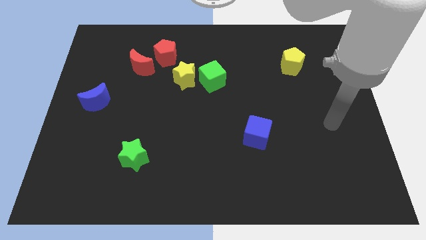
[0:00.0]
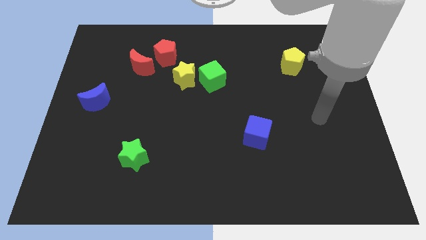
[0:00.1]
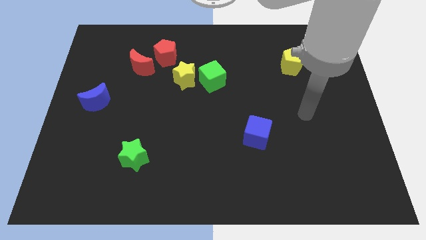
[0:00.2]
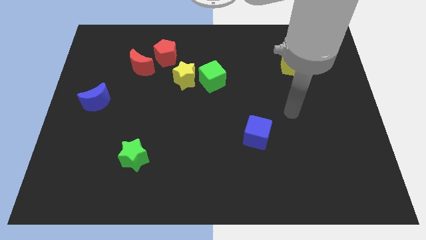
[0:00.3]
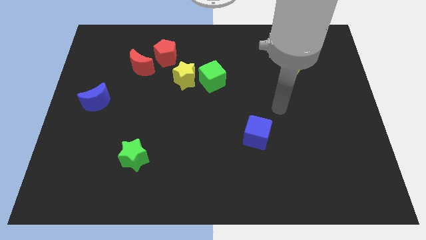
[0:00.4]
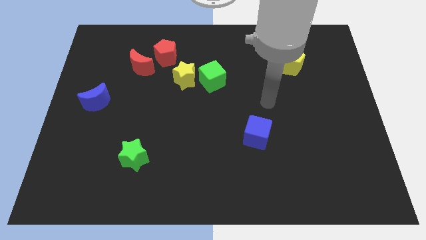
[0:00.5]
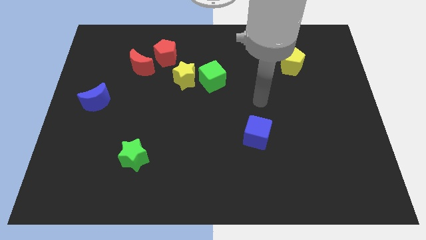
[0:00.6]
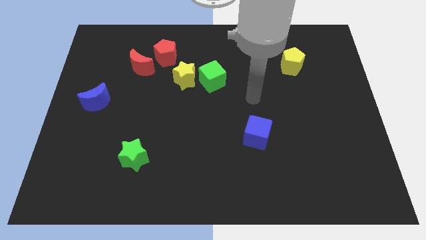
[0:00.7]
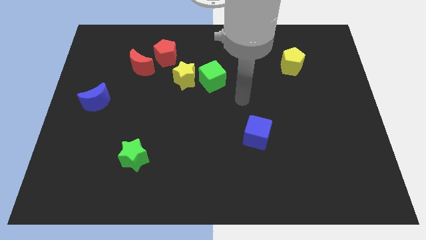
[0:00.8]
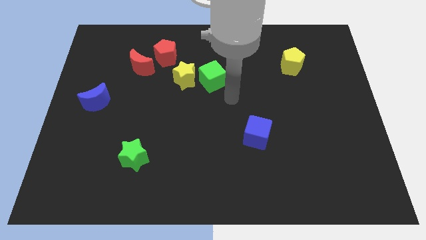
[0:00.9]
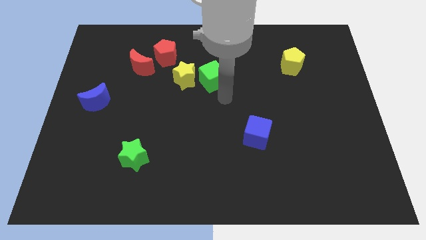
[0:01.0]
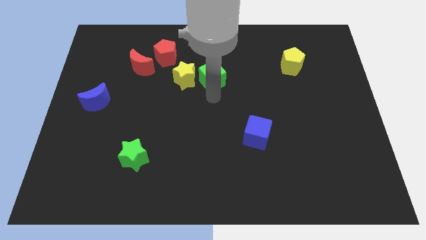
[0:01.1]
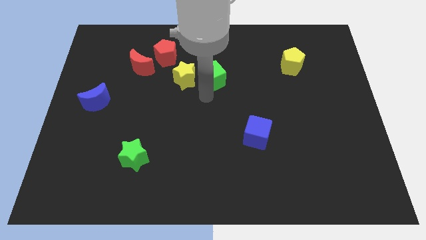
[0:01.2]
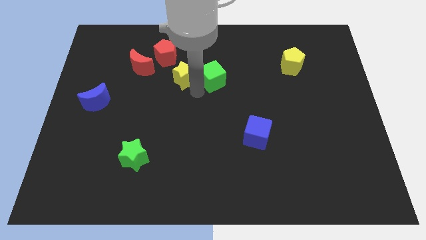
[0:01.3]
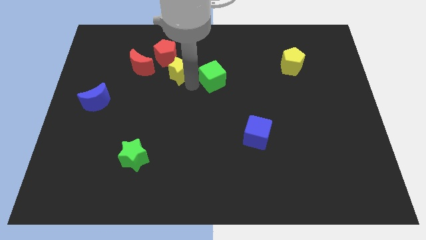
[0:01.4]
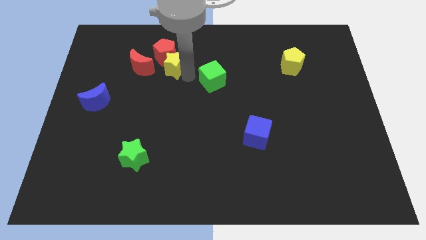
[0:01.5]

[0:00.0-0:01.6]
separate the green cube from the yellow star

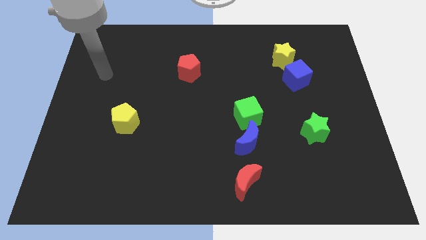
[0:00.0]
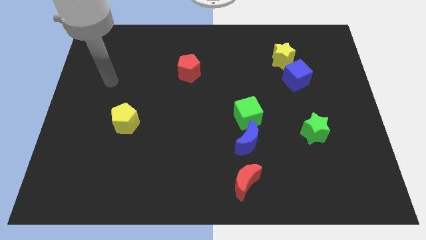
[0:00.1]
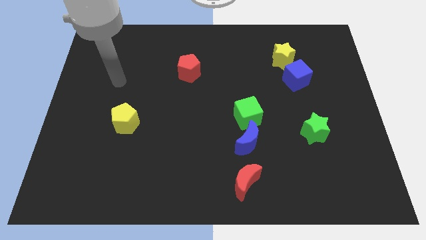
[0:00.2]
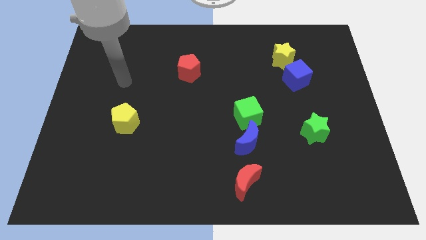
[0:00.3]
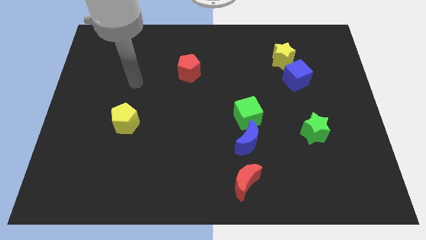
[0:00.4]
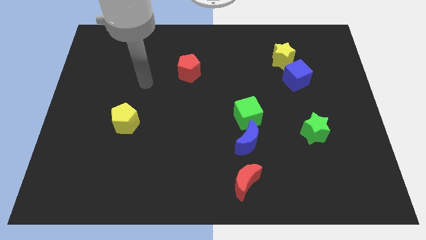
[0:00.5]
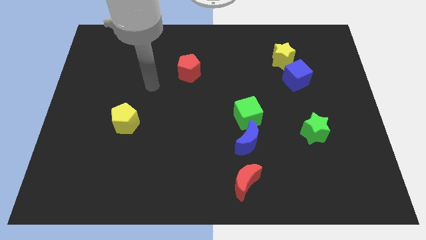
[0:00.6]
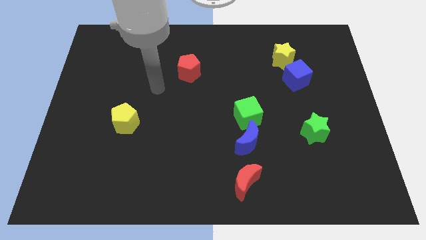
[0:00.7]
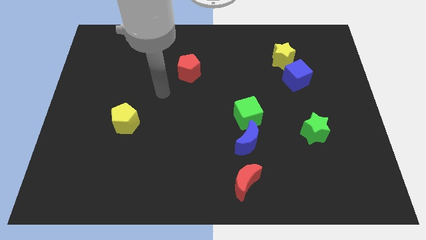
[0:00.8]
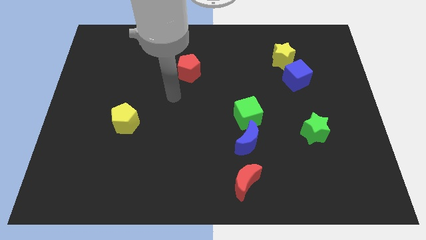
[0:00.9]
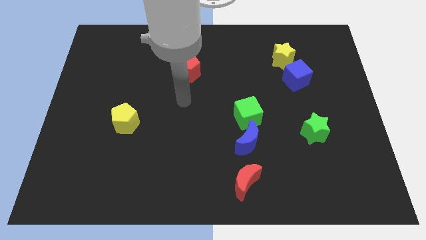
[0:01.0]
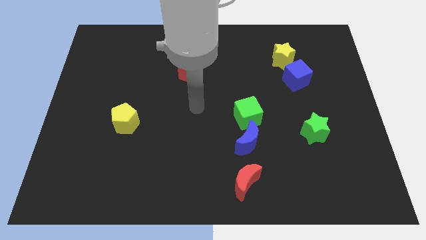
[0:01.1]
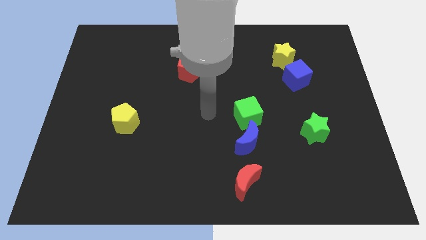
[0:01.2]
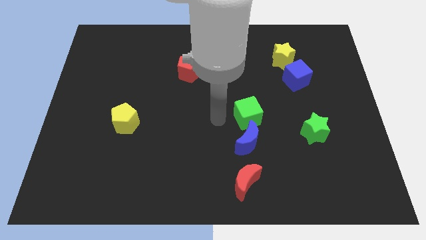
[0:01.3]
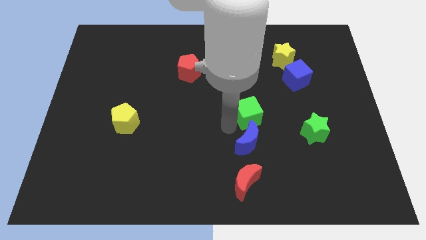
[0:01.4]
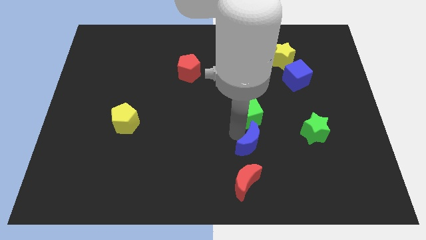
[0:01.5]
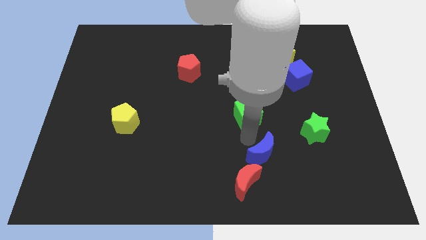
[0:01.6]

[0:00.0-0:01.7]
pull the green cube apart from the blue moon

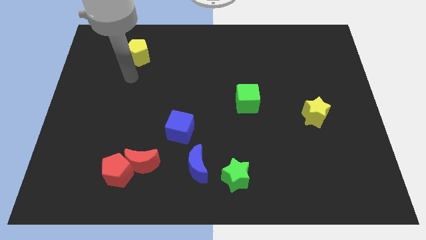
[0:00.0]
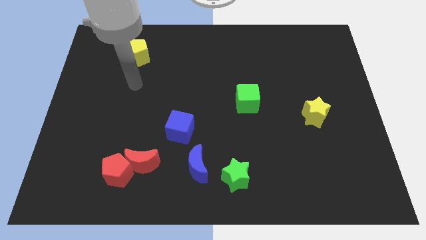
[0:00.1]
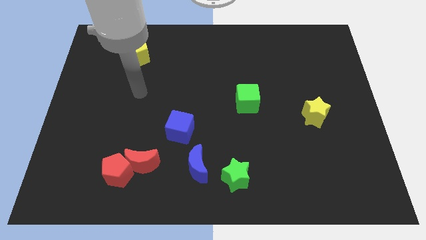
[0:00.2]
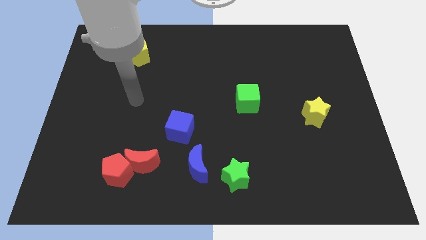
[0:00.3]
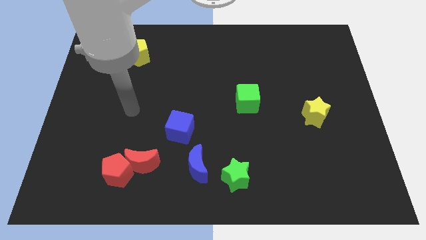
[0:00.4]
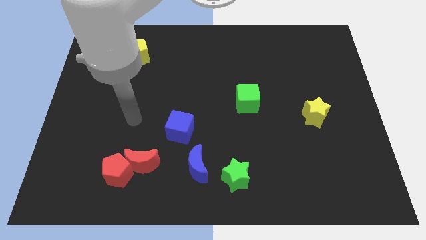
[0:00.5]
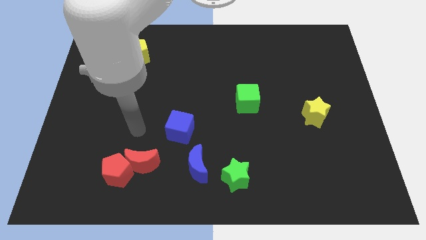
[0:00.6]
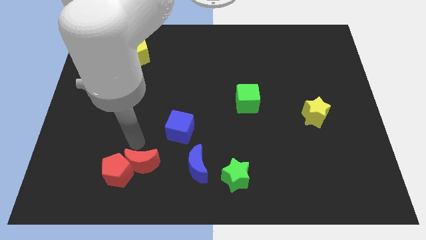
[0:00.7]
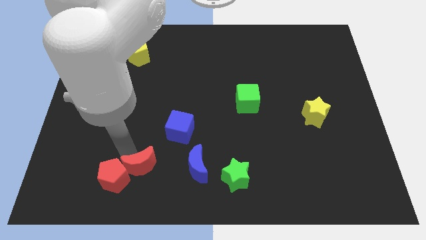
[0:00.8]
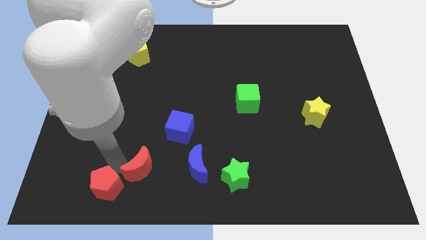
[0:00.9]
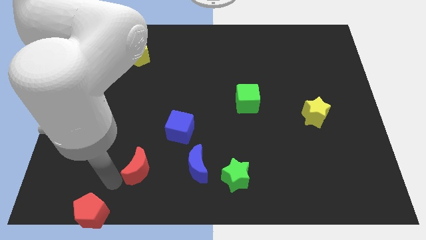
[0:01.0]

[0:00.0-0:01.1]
pull the red moon apart from the red pentagon

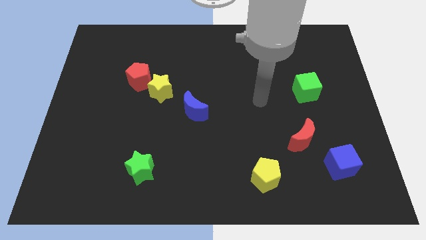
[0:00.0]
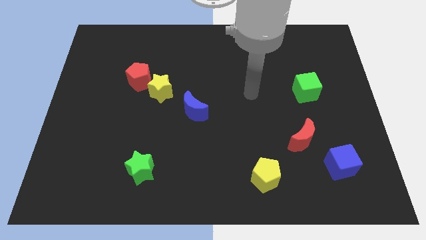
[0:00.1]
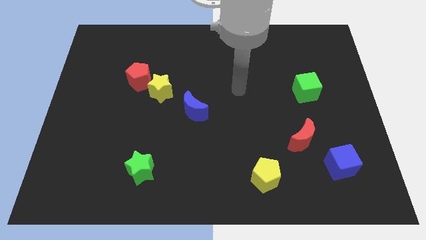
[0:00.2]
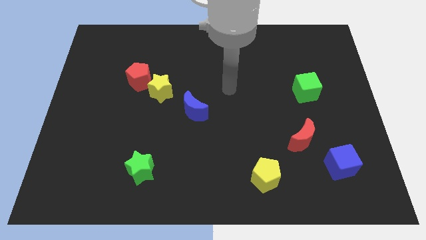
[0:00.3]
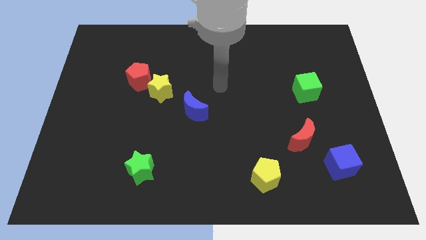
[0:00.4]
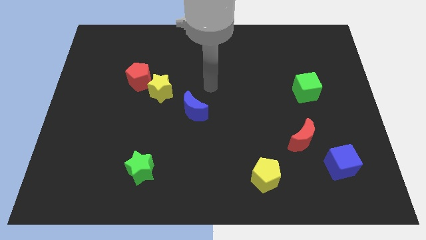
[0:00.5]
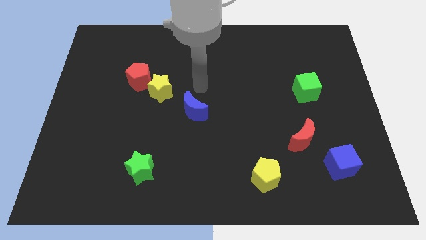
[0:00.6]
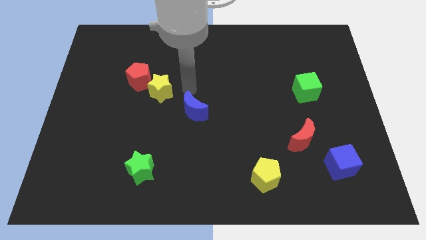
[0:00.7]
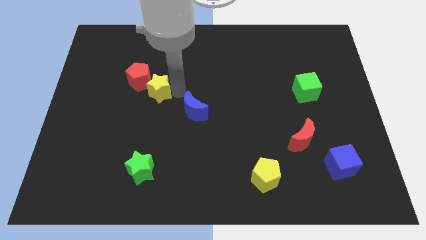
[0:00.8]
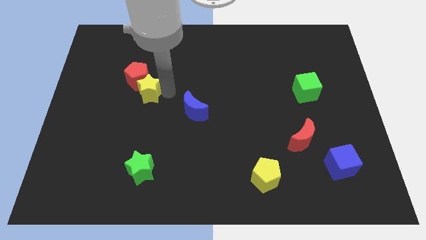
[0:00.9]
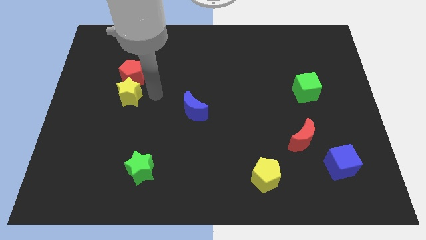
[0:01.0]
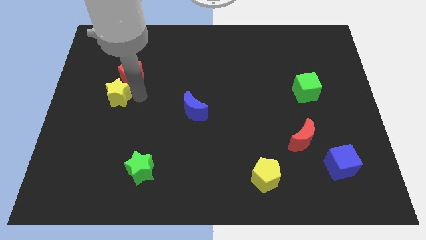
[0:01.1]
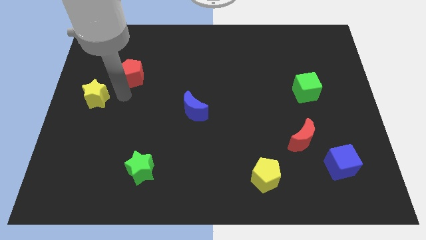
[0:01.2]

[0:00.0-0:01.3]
move the red pentagon away from the yellow star

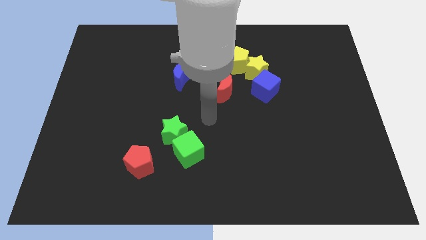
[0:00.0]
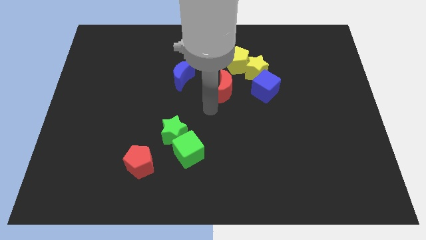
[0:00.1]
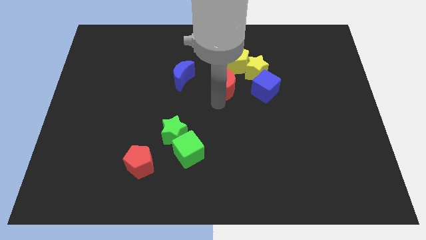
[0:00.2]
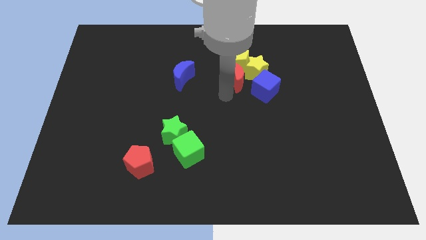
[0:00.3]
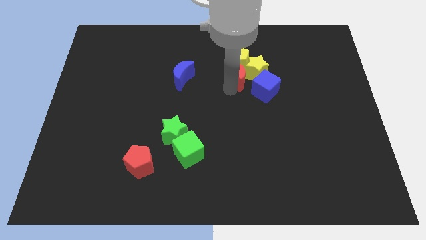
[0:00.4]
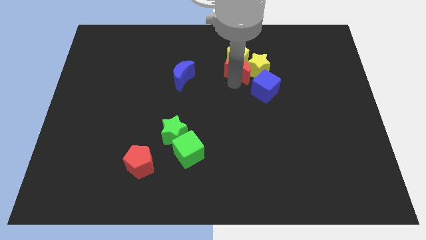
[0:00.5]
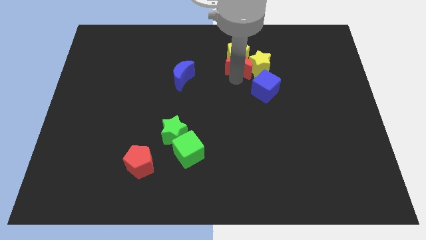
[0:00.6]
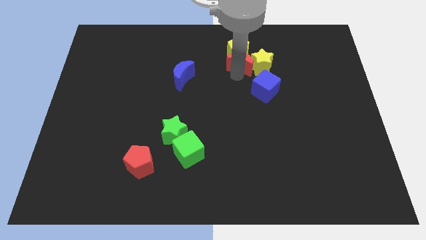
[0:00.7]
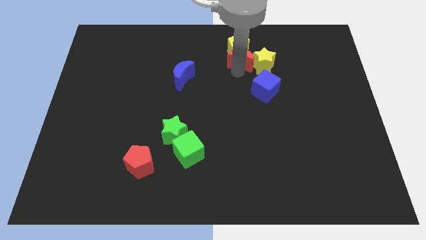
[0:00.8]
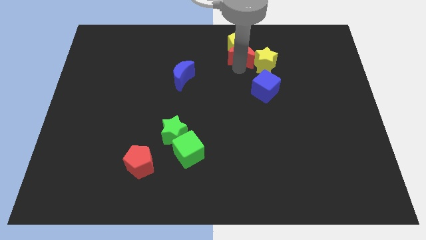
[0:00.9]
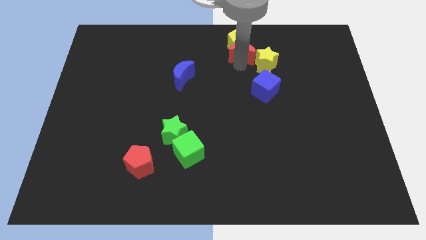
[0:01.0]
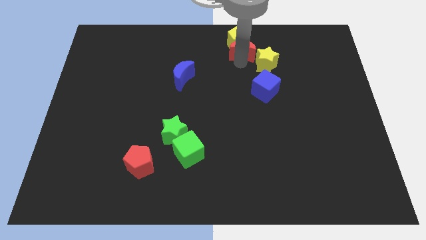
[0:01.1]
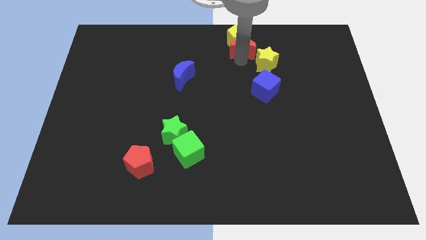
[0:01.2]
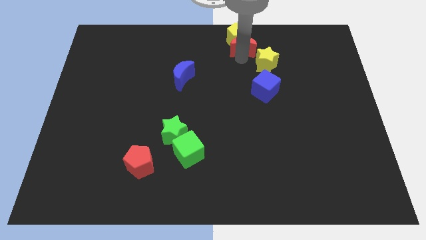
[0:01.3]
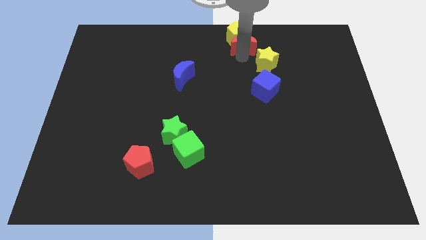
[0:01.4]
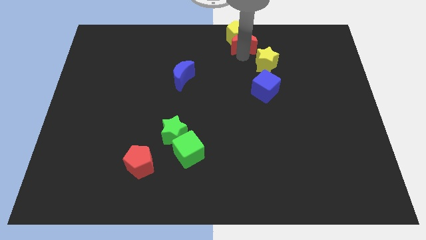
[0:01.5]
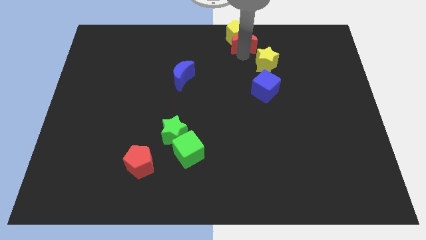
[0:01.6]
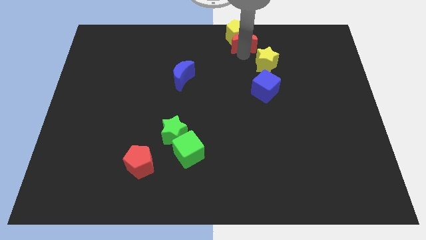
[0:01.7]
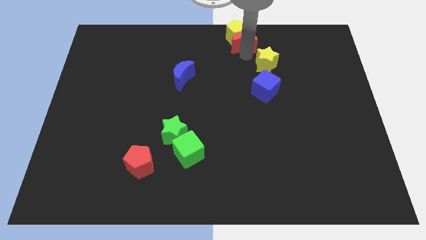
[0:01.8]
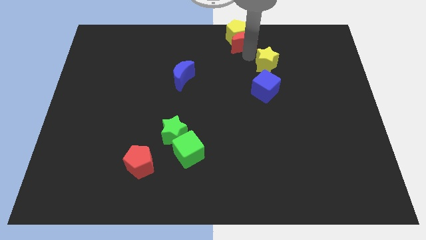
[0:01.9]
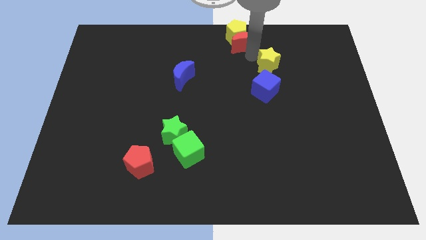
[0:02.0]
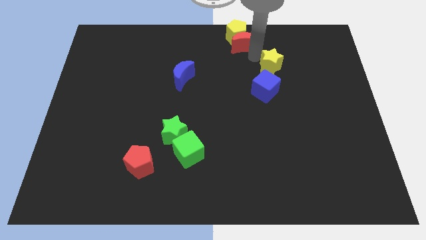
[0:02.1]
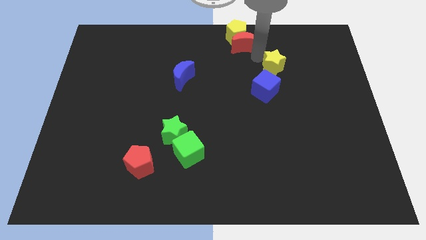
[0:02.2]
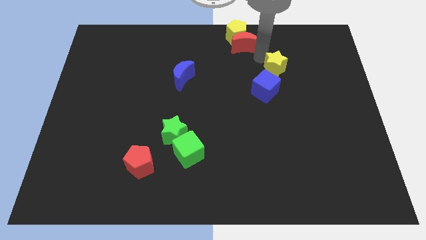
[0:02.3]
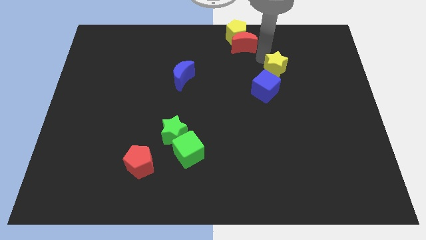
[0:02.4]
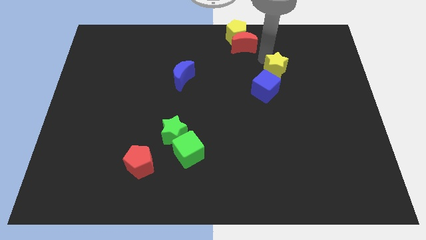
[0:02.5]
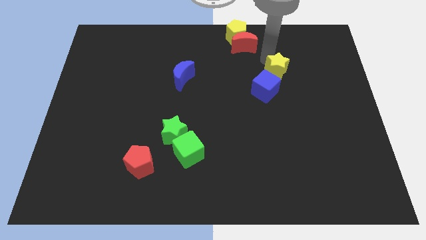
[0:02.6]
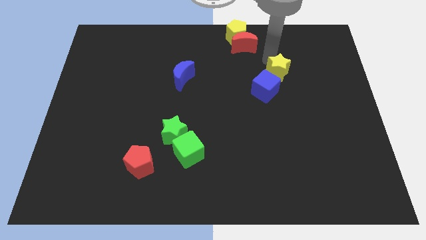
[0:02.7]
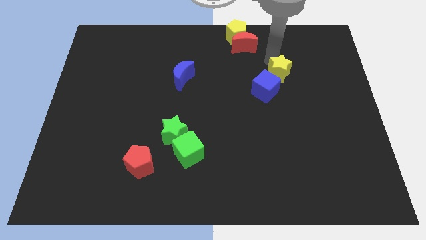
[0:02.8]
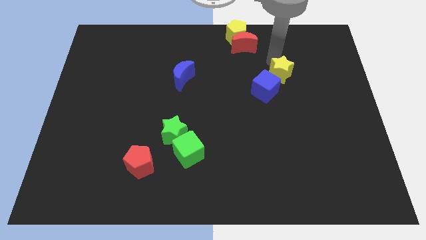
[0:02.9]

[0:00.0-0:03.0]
separate the yellow star from the group

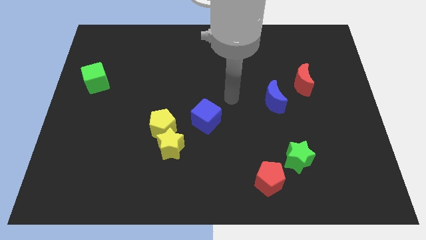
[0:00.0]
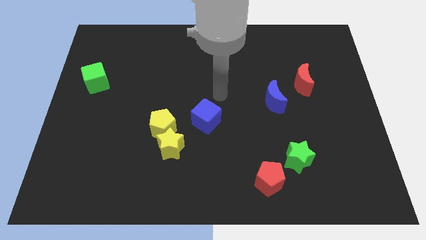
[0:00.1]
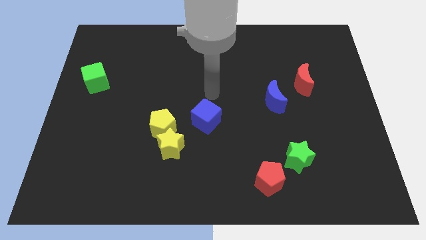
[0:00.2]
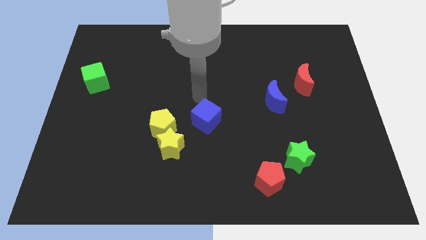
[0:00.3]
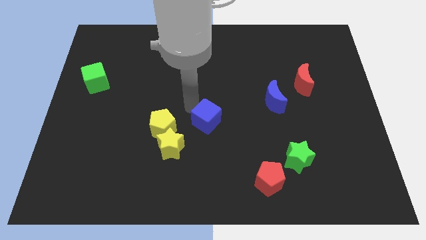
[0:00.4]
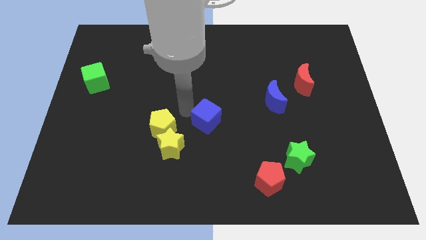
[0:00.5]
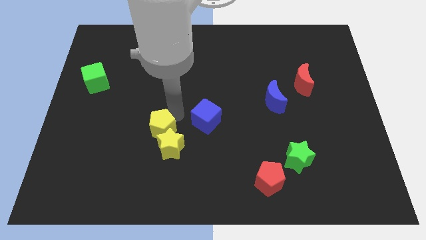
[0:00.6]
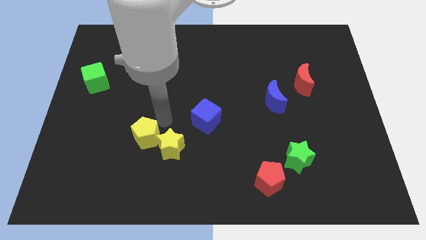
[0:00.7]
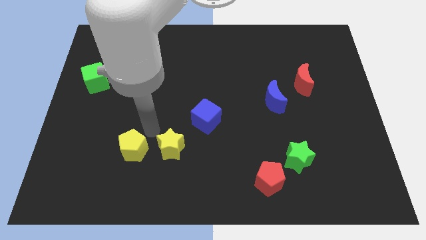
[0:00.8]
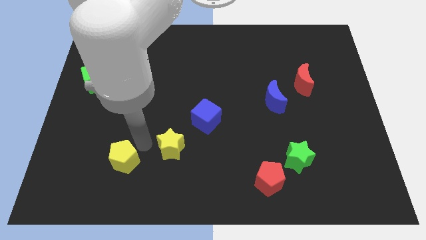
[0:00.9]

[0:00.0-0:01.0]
move the yellow star away from the yellow pentagon
